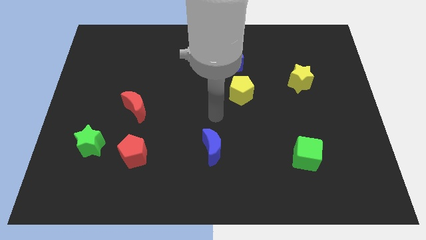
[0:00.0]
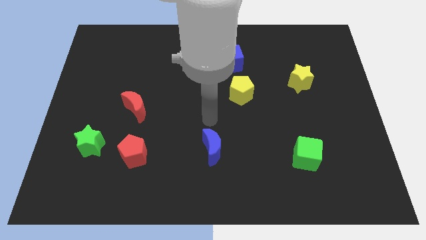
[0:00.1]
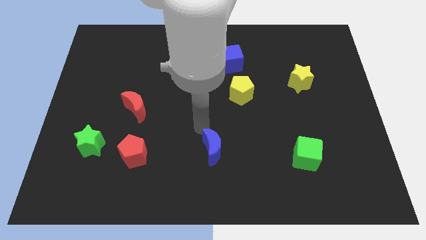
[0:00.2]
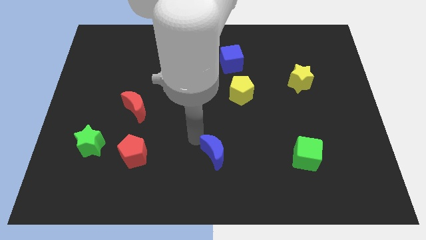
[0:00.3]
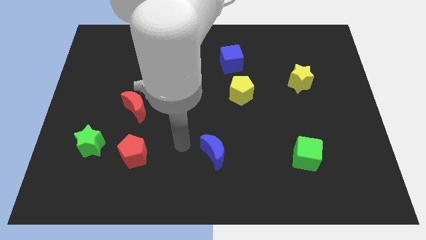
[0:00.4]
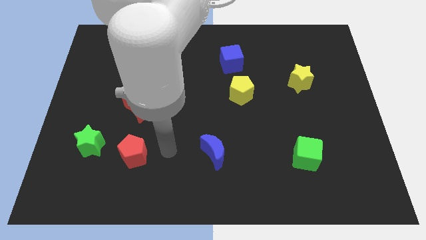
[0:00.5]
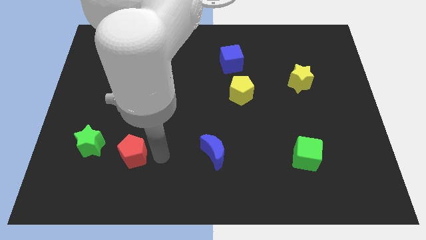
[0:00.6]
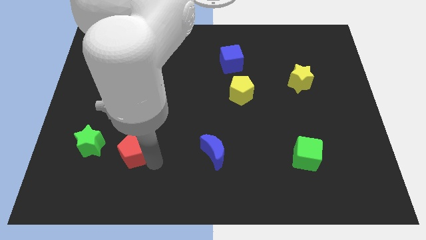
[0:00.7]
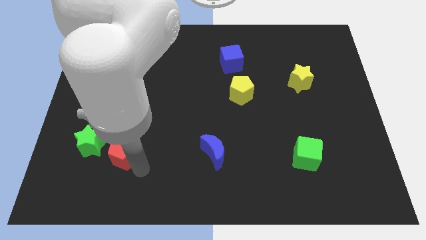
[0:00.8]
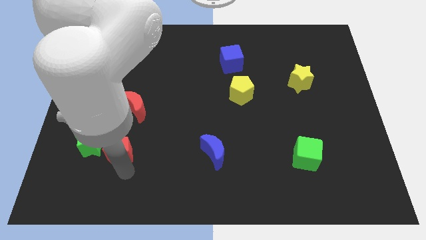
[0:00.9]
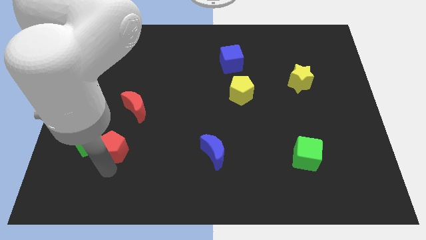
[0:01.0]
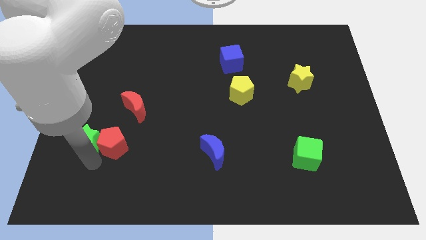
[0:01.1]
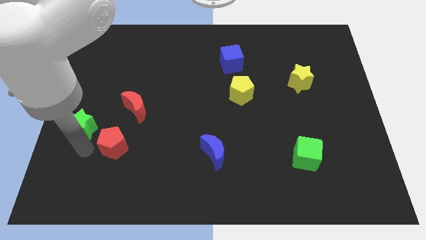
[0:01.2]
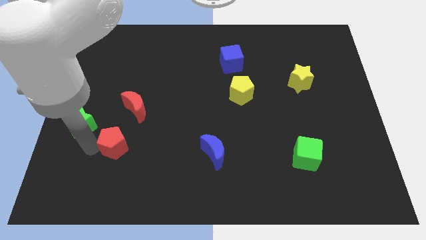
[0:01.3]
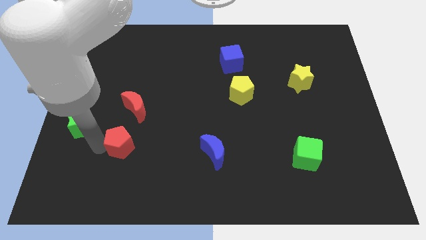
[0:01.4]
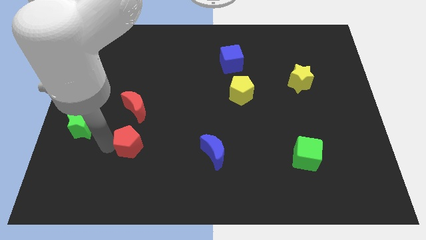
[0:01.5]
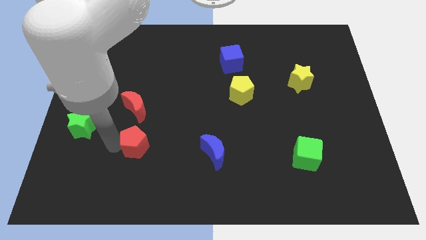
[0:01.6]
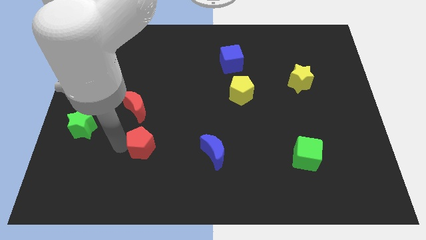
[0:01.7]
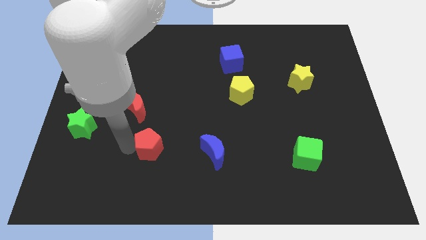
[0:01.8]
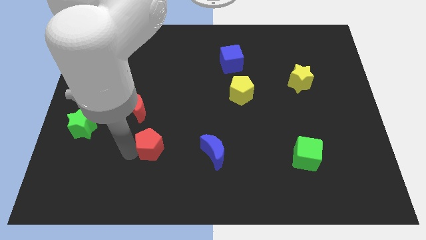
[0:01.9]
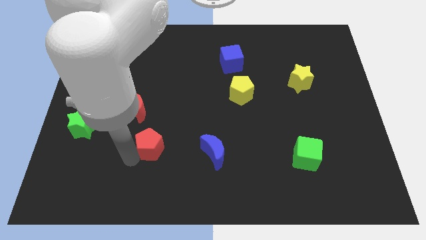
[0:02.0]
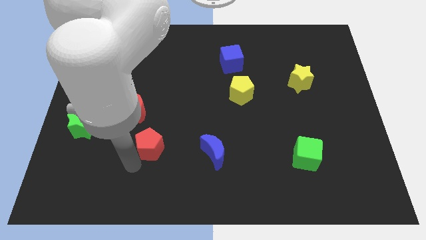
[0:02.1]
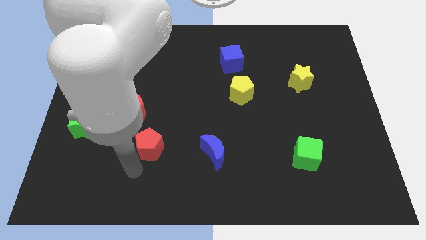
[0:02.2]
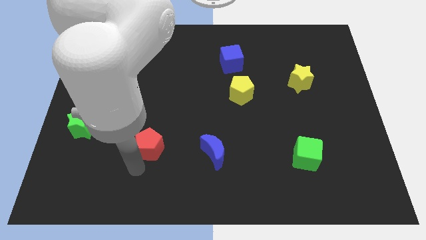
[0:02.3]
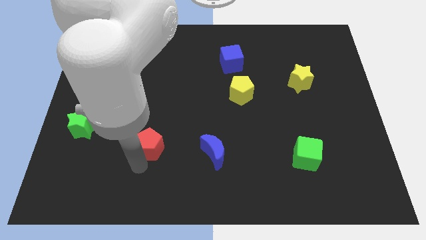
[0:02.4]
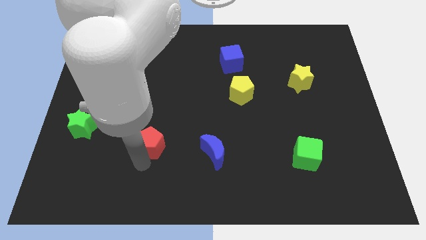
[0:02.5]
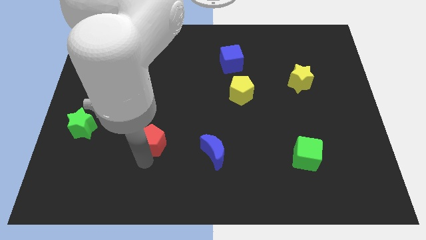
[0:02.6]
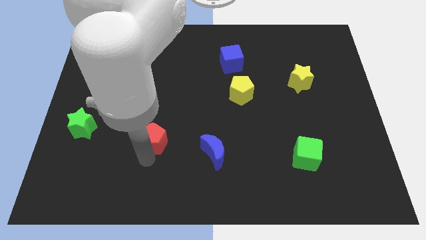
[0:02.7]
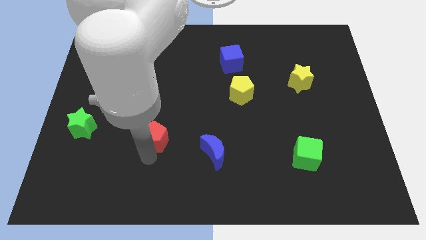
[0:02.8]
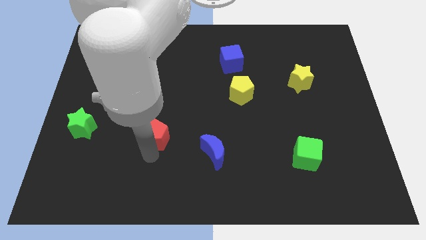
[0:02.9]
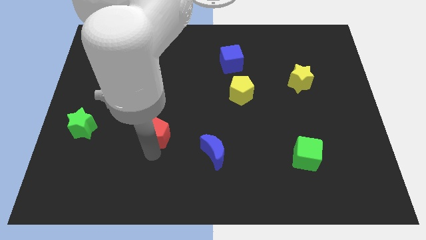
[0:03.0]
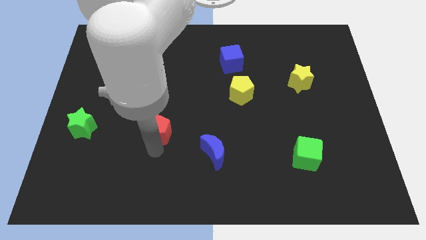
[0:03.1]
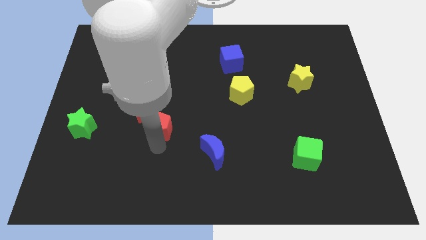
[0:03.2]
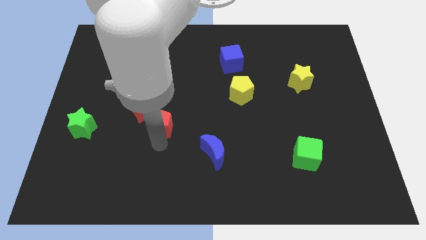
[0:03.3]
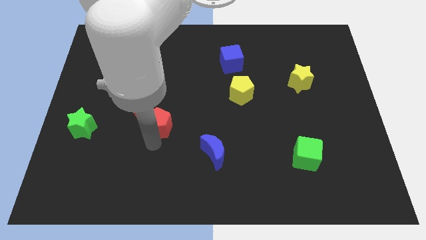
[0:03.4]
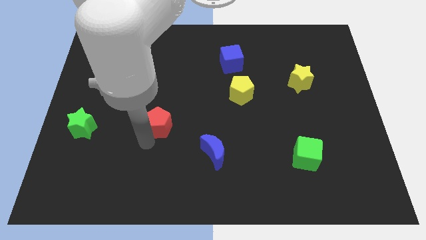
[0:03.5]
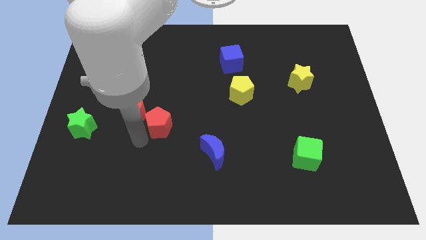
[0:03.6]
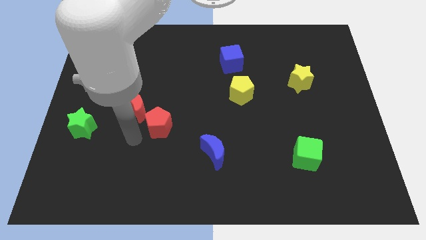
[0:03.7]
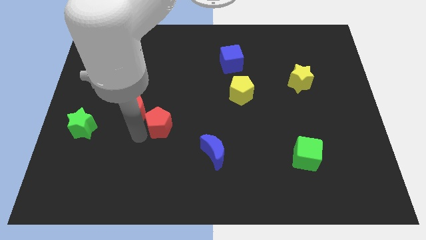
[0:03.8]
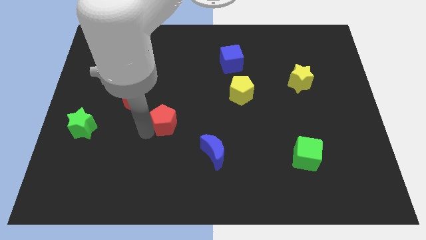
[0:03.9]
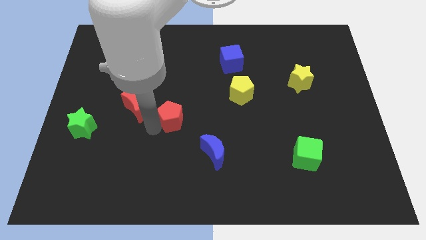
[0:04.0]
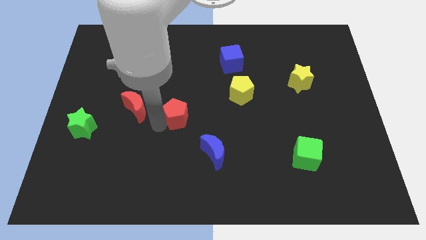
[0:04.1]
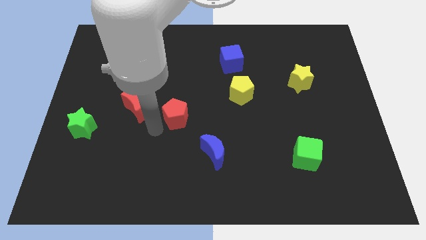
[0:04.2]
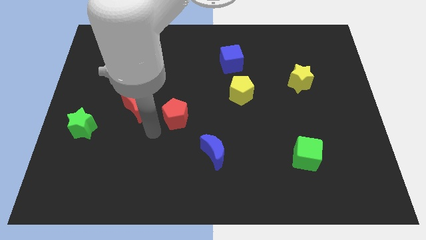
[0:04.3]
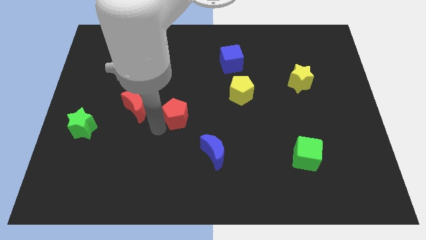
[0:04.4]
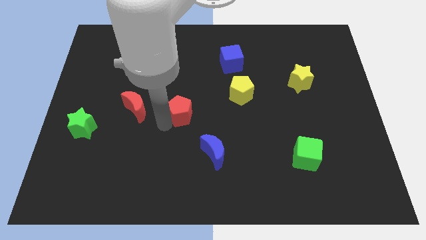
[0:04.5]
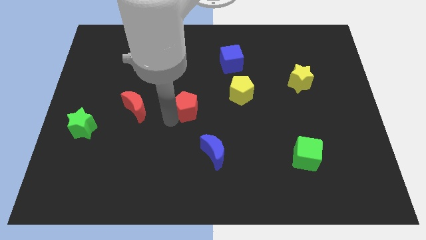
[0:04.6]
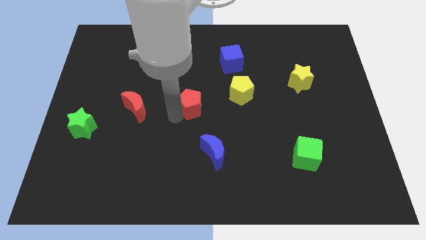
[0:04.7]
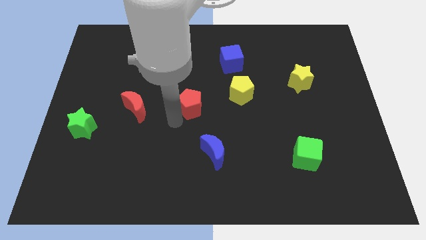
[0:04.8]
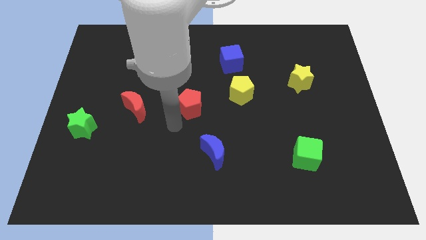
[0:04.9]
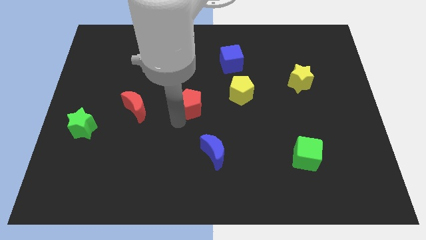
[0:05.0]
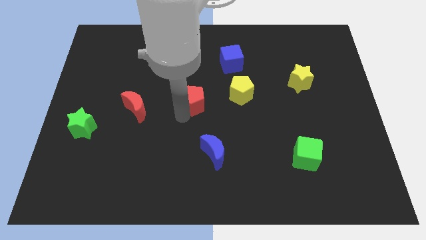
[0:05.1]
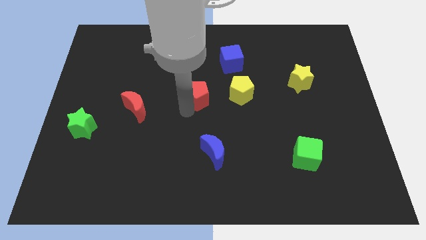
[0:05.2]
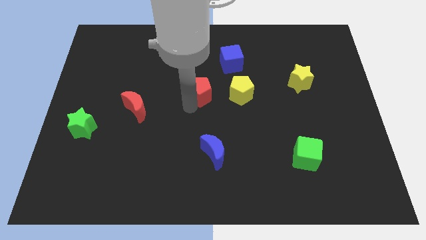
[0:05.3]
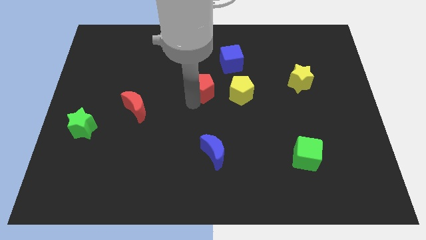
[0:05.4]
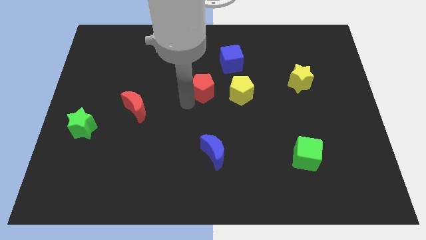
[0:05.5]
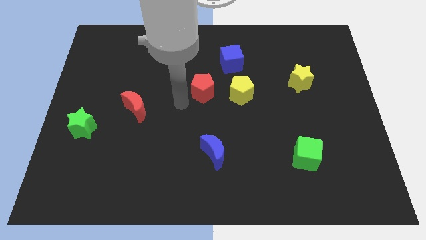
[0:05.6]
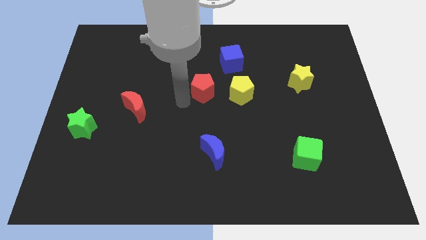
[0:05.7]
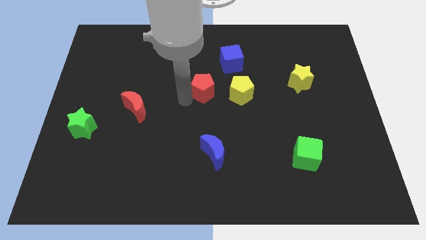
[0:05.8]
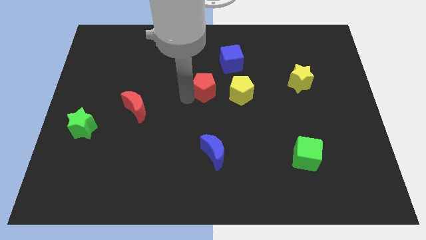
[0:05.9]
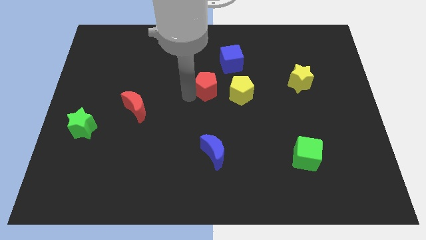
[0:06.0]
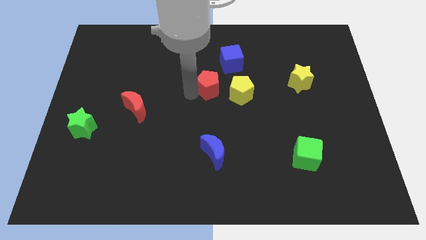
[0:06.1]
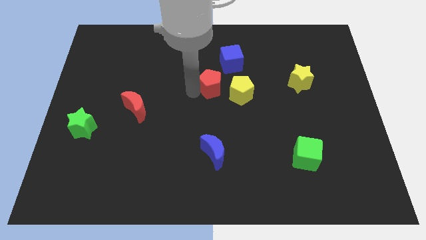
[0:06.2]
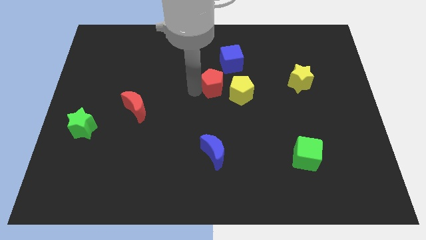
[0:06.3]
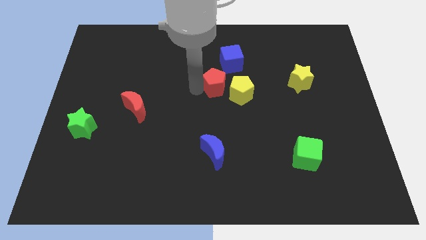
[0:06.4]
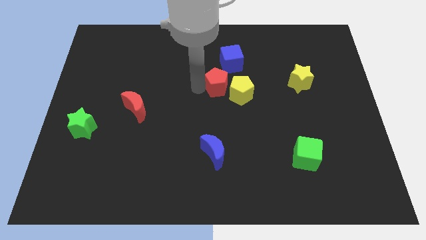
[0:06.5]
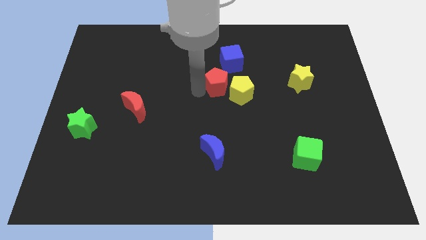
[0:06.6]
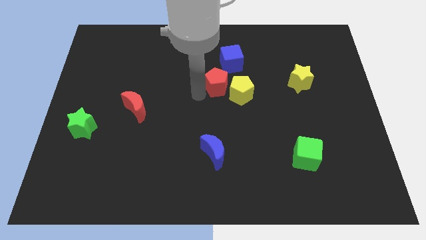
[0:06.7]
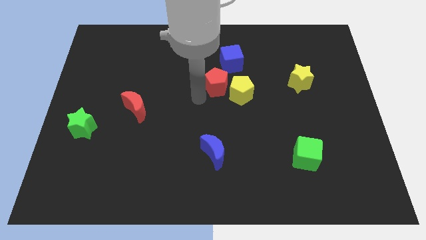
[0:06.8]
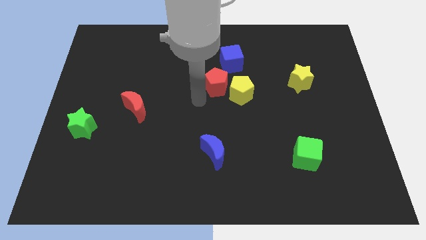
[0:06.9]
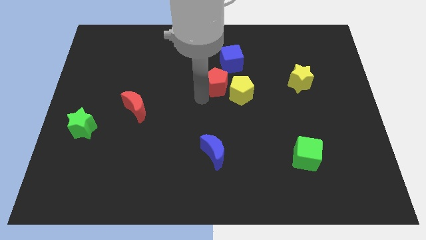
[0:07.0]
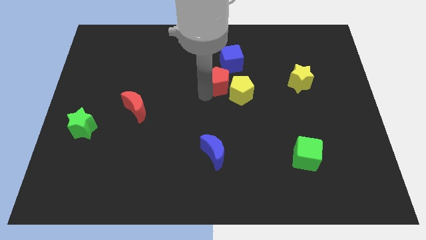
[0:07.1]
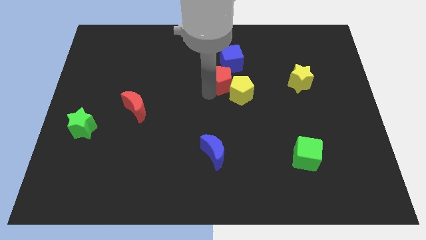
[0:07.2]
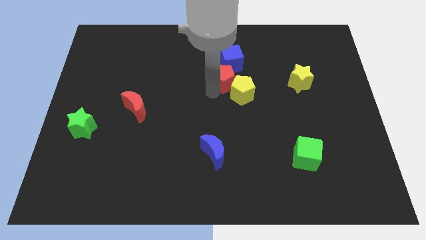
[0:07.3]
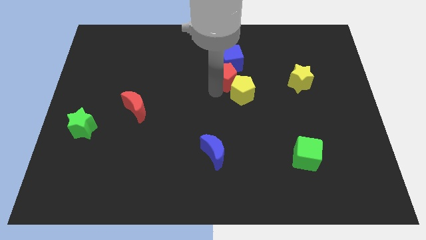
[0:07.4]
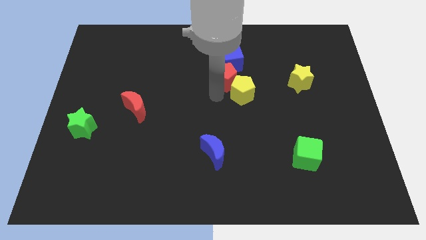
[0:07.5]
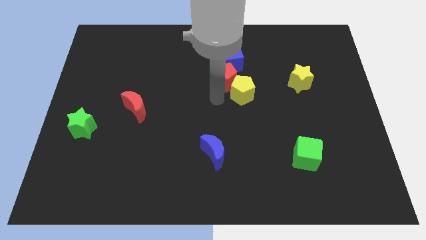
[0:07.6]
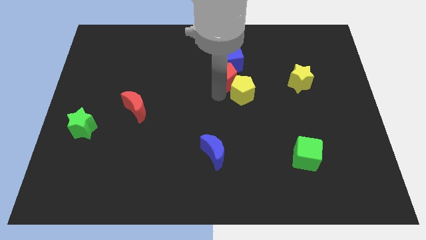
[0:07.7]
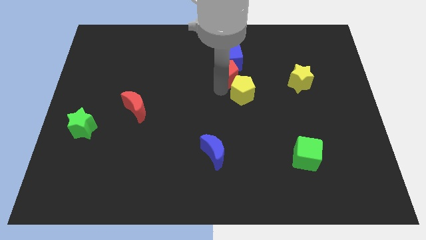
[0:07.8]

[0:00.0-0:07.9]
slide the red pentagon next to the blue cube
